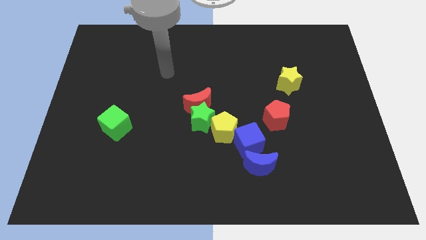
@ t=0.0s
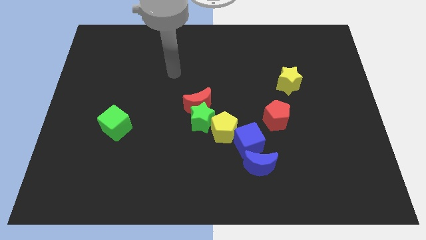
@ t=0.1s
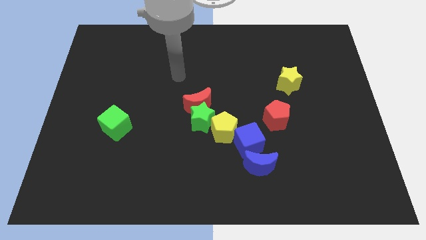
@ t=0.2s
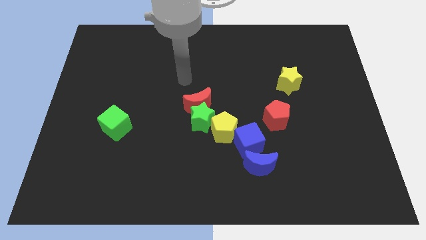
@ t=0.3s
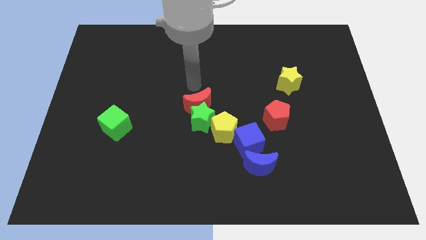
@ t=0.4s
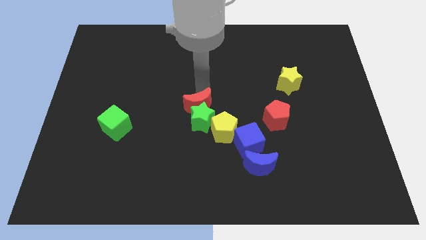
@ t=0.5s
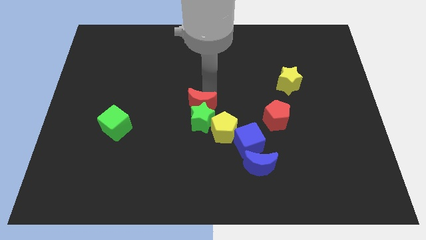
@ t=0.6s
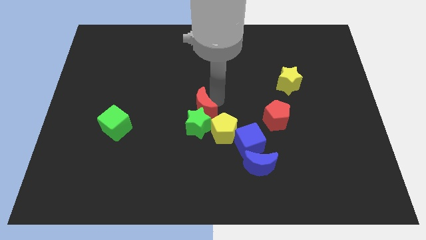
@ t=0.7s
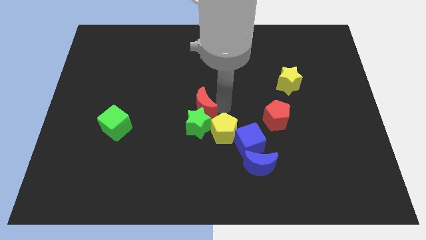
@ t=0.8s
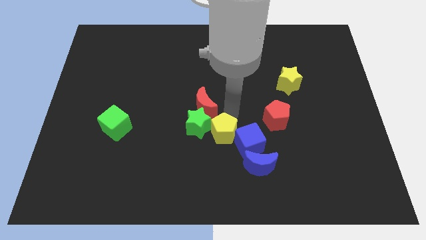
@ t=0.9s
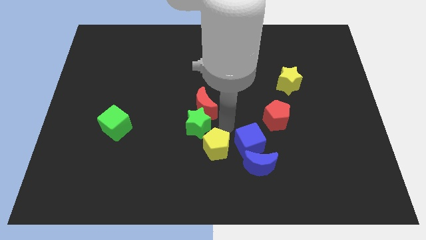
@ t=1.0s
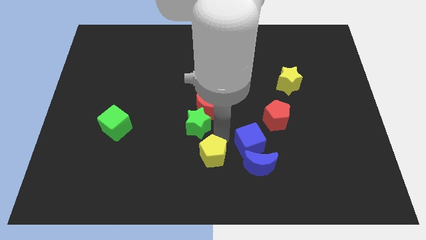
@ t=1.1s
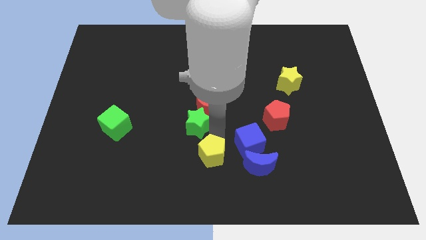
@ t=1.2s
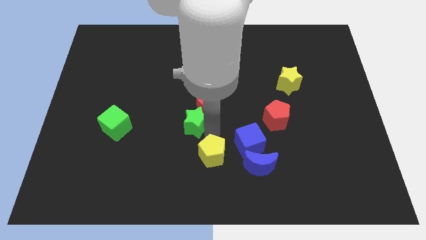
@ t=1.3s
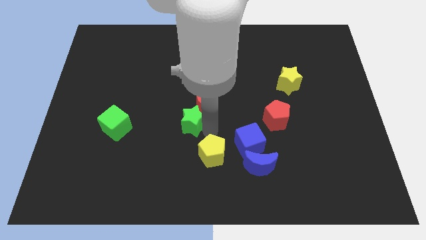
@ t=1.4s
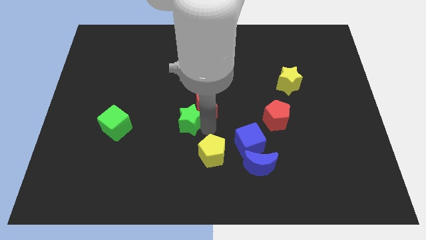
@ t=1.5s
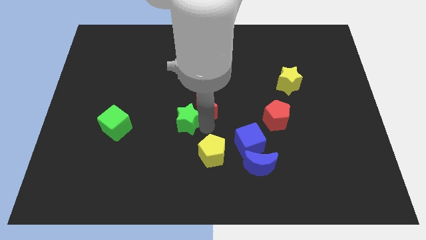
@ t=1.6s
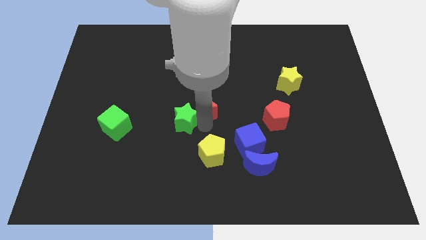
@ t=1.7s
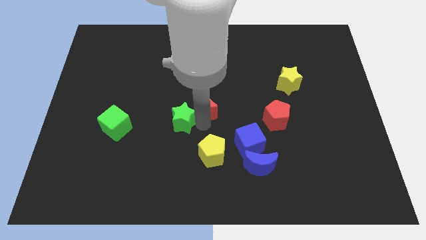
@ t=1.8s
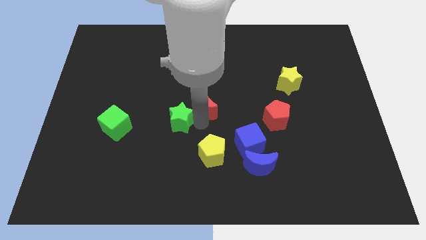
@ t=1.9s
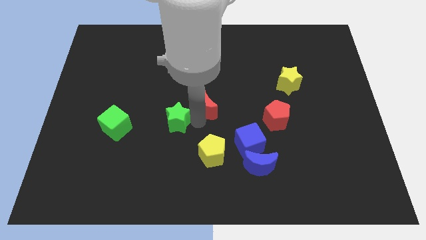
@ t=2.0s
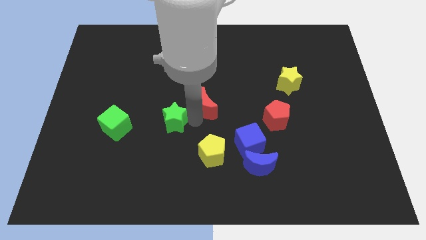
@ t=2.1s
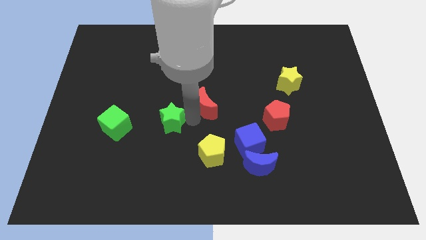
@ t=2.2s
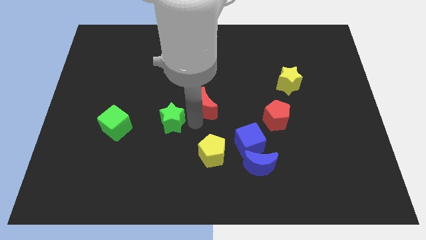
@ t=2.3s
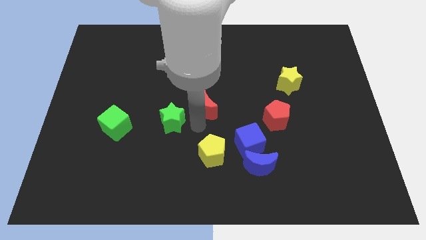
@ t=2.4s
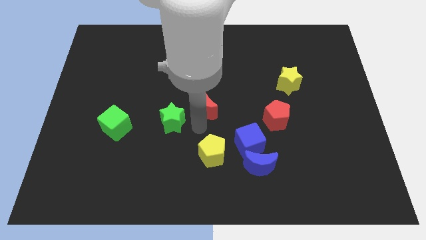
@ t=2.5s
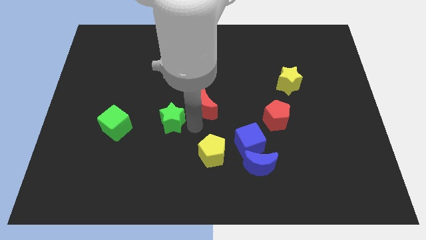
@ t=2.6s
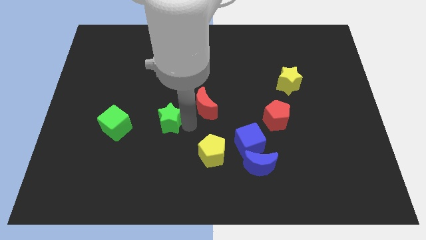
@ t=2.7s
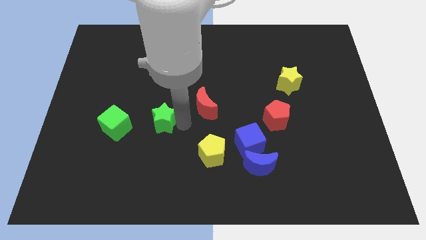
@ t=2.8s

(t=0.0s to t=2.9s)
separate the green star from the red moon and yellow pentagon

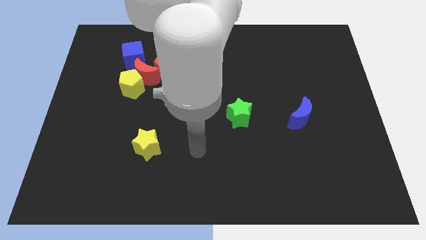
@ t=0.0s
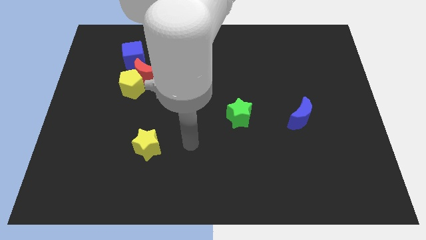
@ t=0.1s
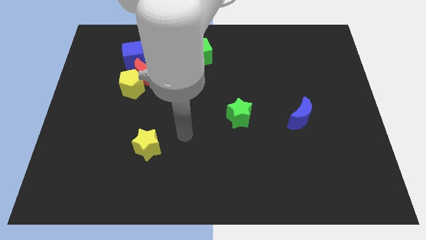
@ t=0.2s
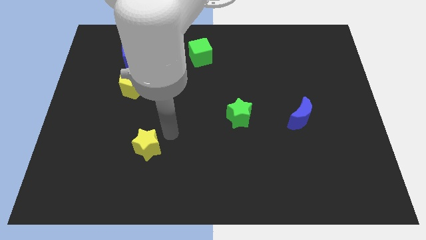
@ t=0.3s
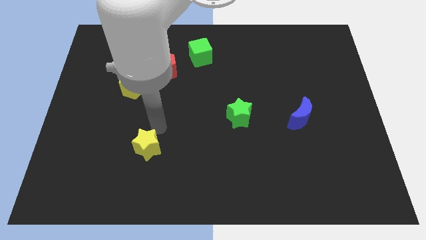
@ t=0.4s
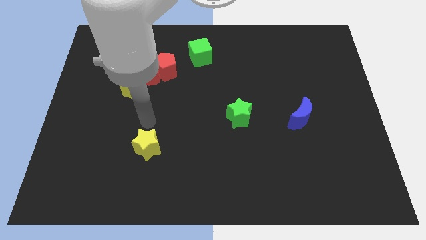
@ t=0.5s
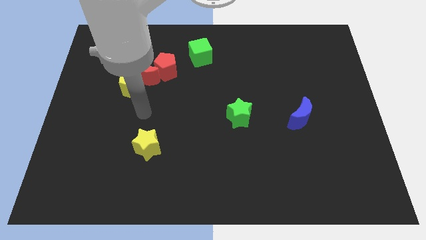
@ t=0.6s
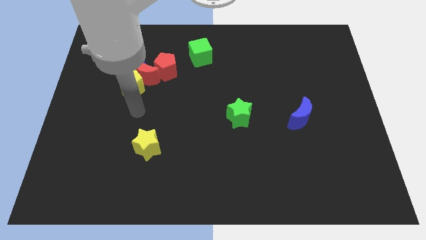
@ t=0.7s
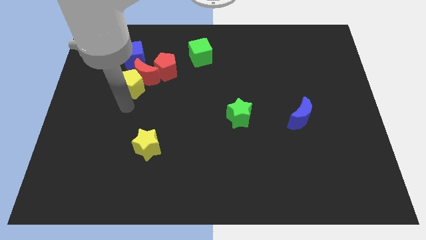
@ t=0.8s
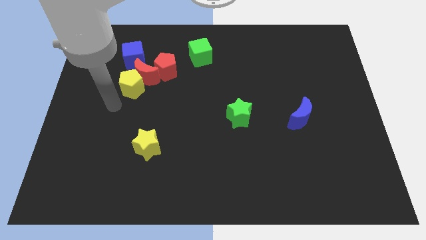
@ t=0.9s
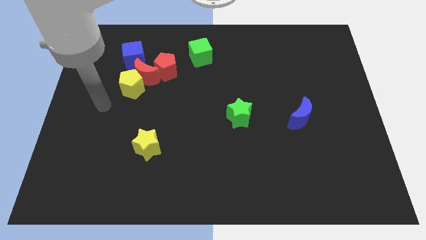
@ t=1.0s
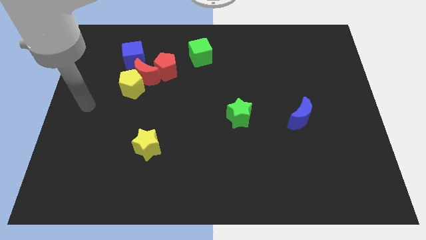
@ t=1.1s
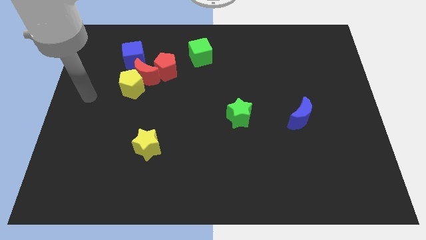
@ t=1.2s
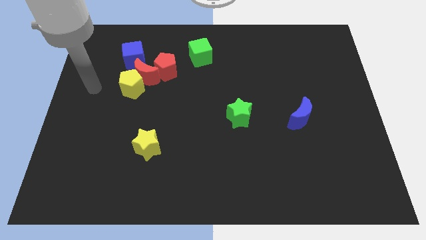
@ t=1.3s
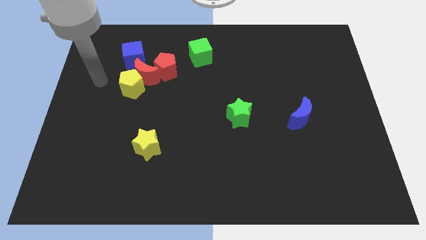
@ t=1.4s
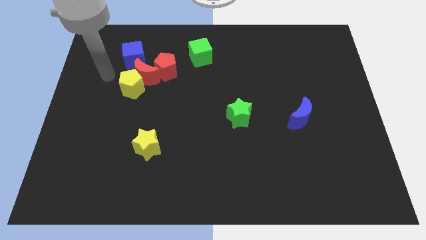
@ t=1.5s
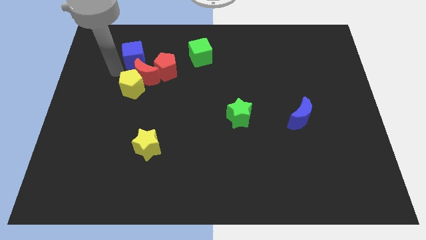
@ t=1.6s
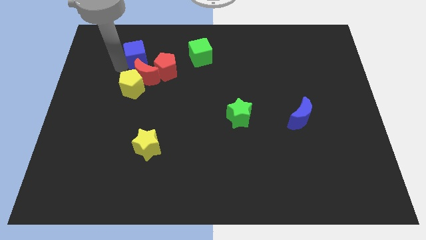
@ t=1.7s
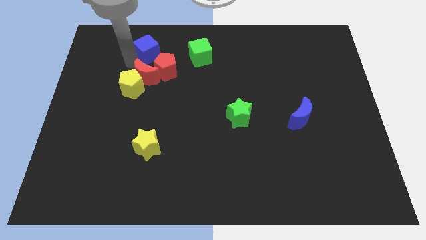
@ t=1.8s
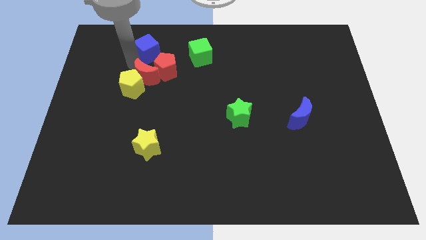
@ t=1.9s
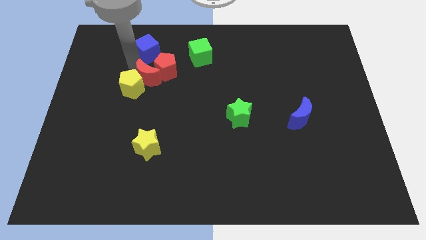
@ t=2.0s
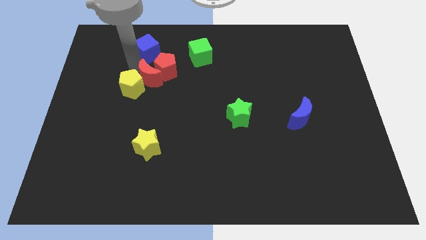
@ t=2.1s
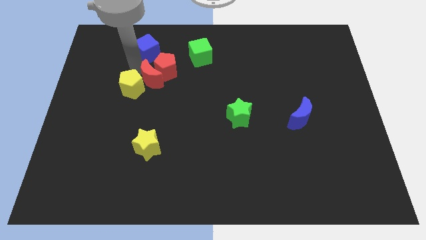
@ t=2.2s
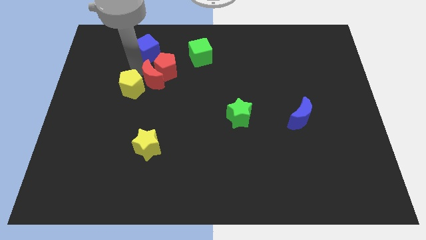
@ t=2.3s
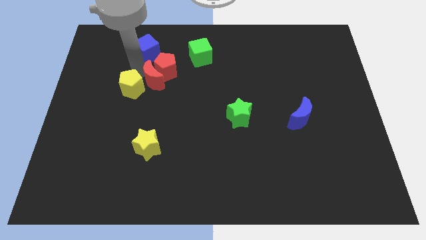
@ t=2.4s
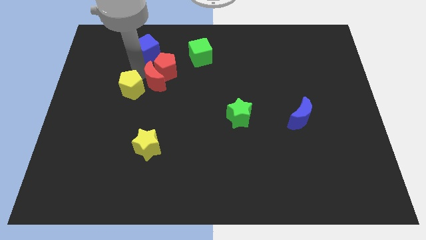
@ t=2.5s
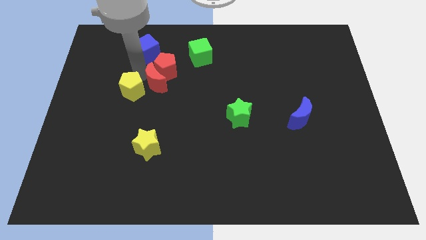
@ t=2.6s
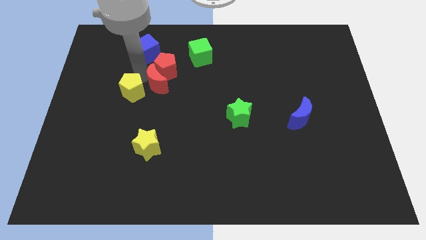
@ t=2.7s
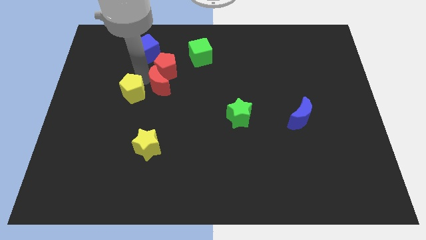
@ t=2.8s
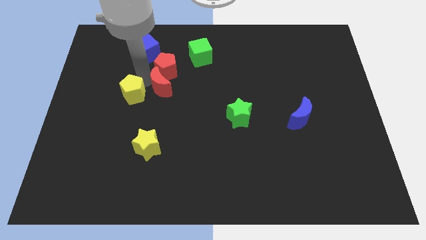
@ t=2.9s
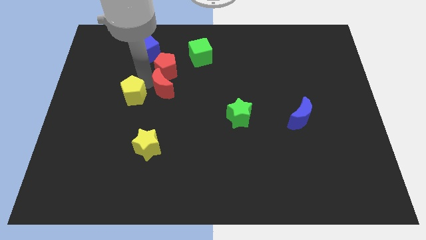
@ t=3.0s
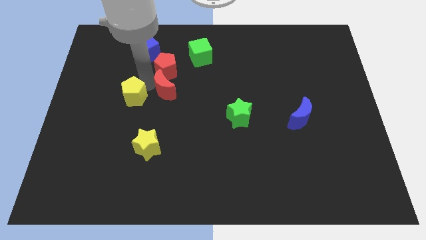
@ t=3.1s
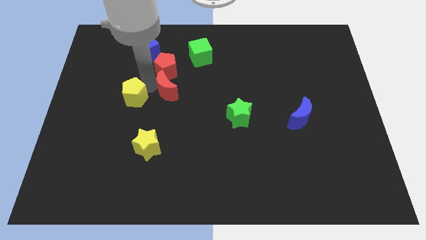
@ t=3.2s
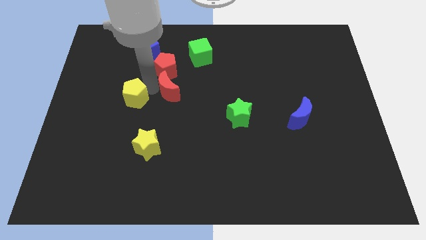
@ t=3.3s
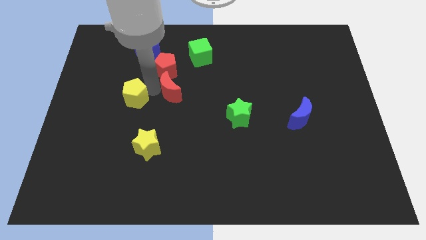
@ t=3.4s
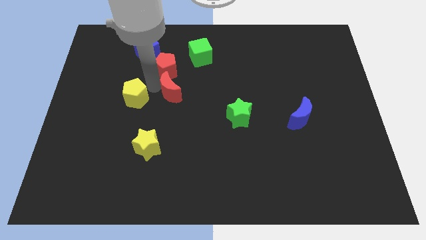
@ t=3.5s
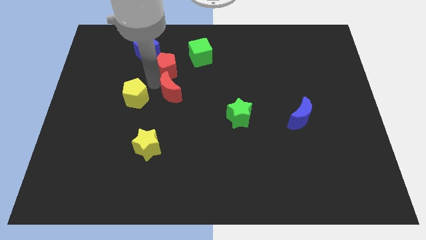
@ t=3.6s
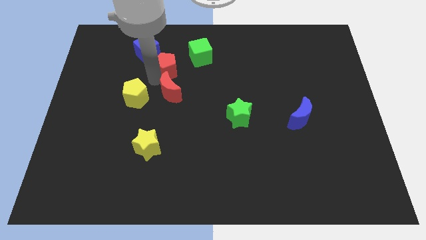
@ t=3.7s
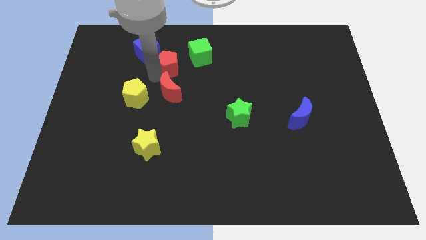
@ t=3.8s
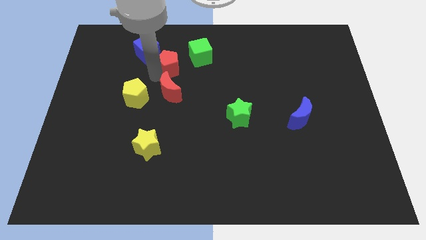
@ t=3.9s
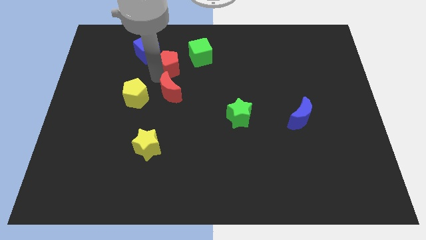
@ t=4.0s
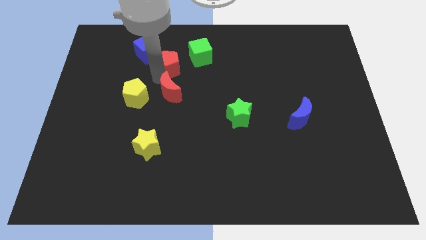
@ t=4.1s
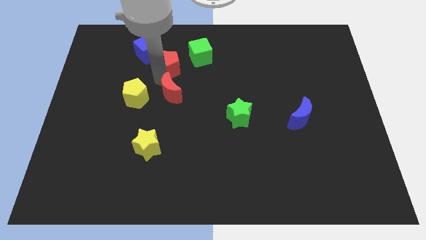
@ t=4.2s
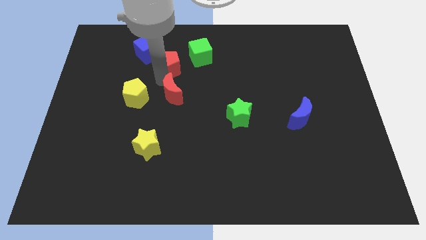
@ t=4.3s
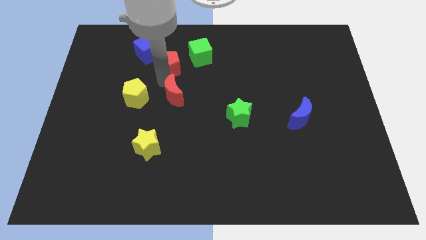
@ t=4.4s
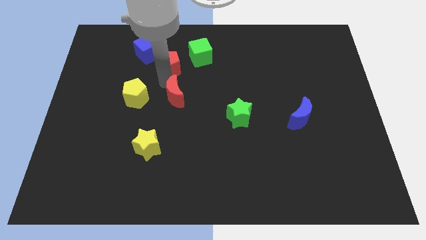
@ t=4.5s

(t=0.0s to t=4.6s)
separate the red moon from the group

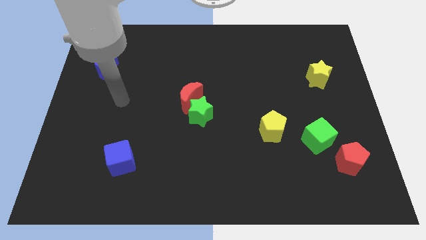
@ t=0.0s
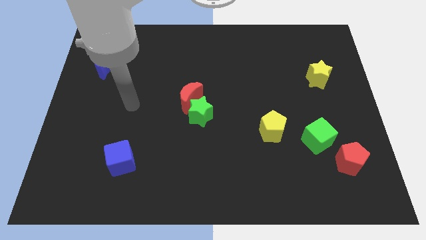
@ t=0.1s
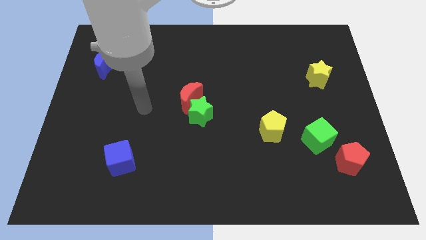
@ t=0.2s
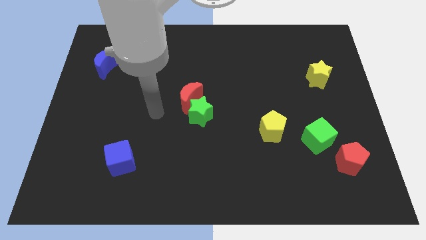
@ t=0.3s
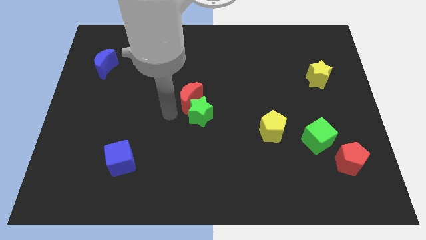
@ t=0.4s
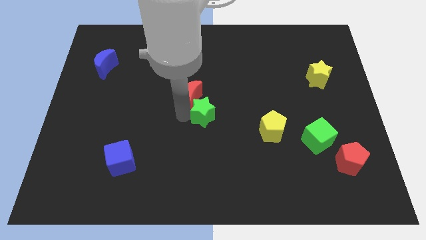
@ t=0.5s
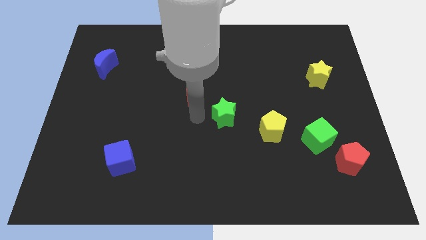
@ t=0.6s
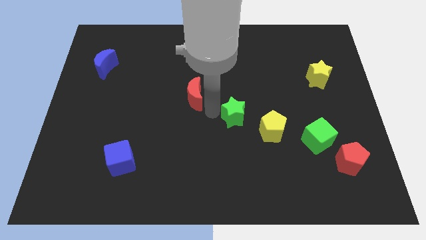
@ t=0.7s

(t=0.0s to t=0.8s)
separate the red moon from the green star

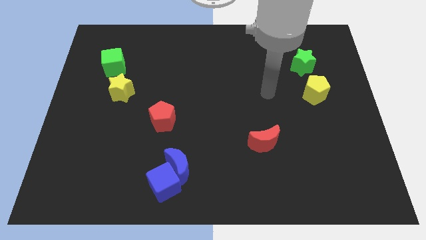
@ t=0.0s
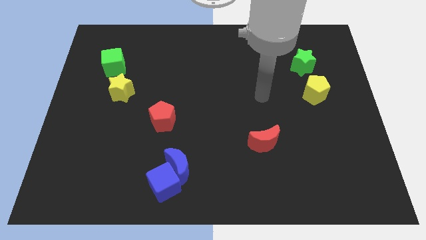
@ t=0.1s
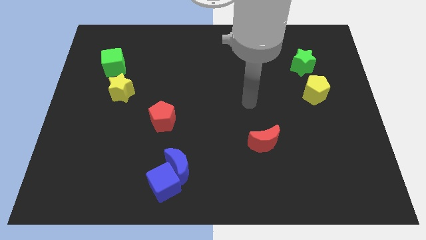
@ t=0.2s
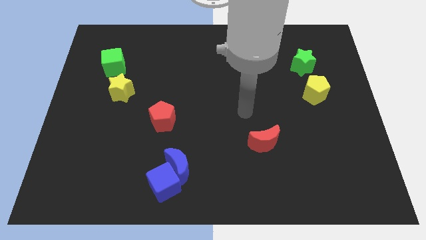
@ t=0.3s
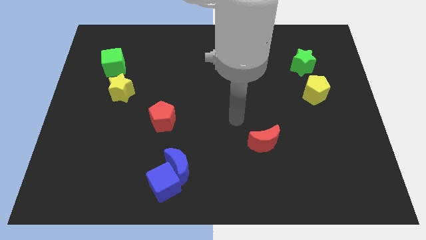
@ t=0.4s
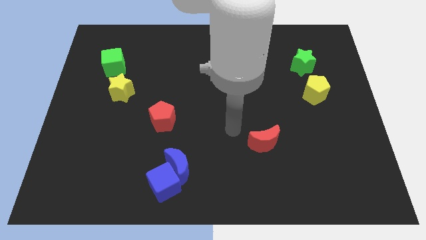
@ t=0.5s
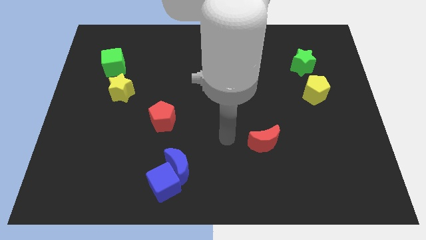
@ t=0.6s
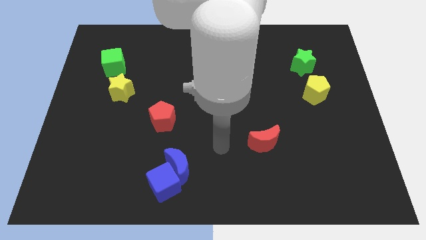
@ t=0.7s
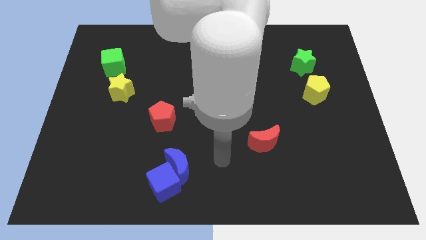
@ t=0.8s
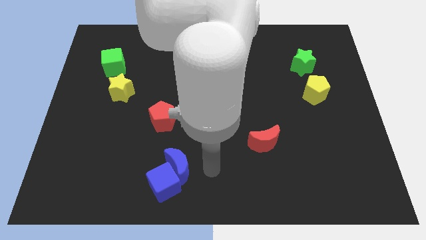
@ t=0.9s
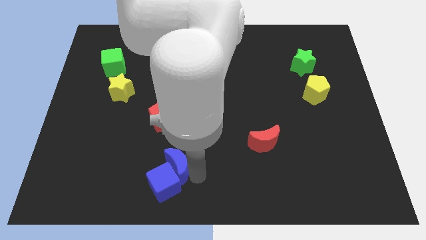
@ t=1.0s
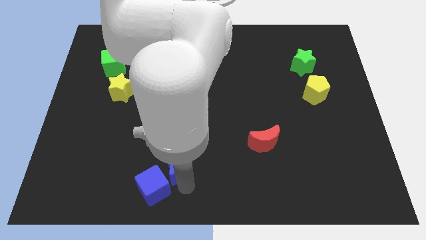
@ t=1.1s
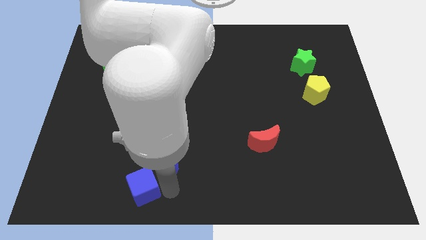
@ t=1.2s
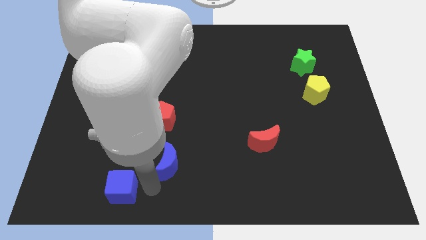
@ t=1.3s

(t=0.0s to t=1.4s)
move the blue moon away from the blue cube
